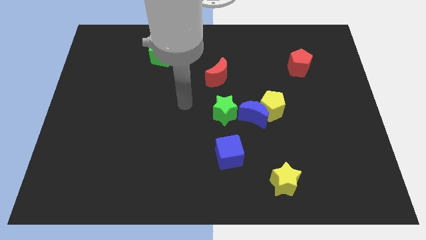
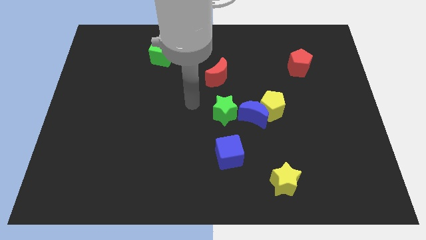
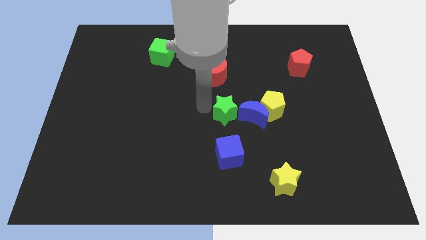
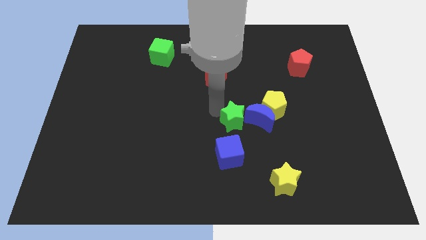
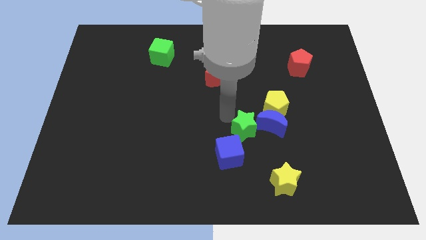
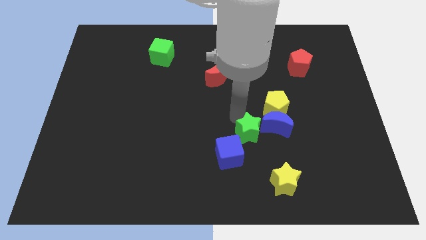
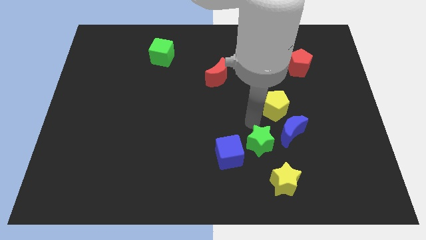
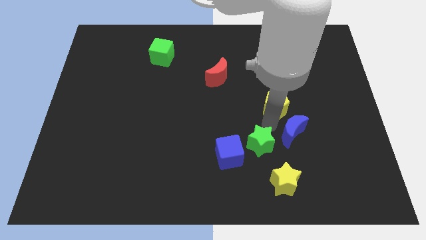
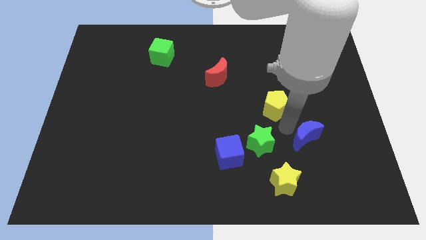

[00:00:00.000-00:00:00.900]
separate the yellow pentagon from the blue moon

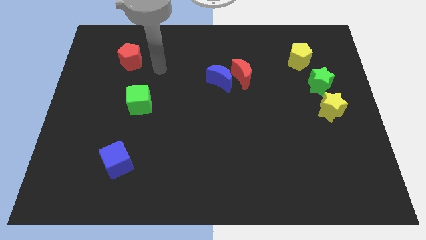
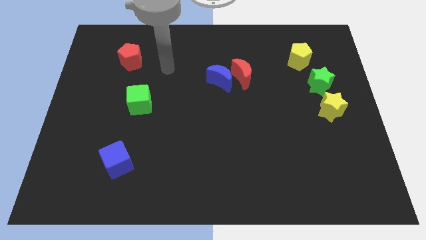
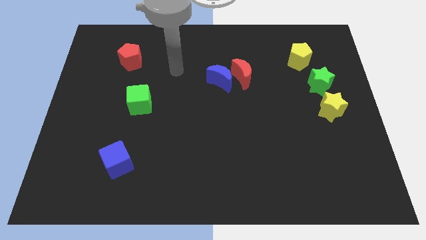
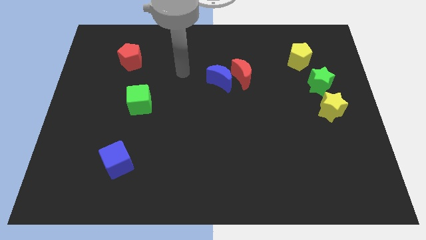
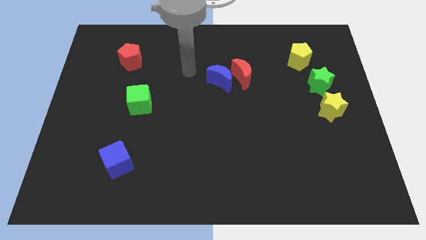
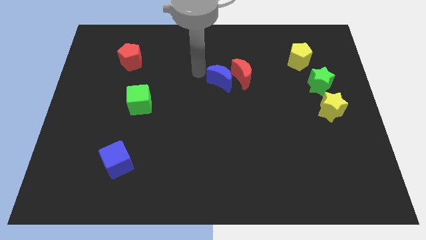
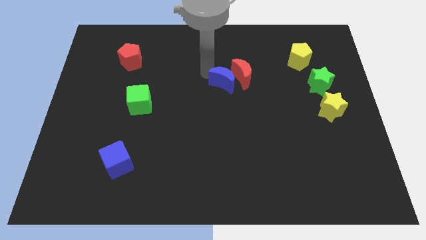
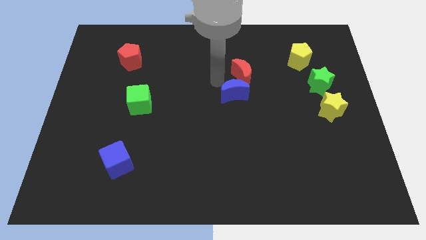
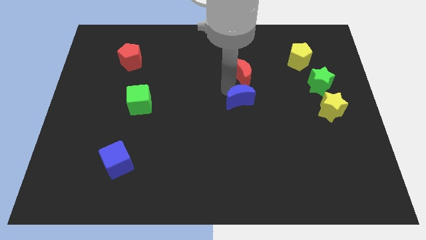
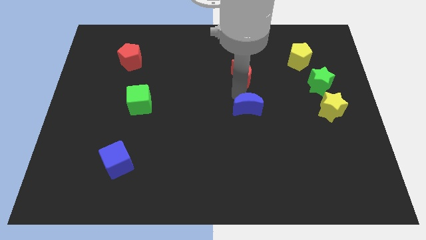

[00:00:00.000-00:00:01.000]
separate the red moon from the blue moon

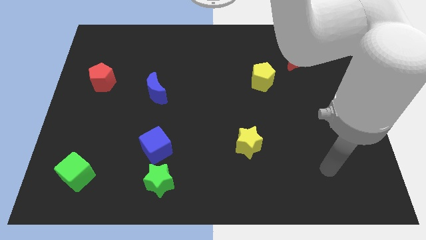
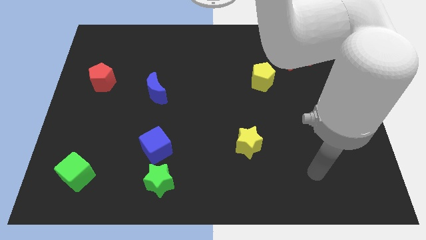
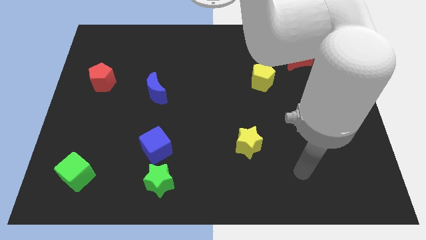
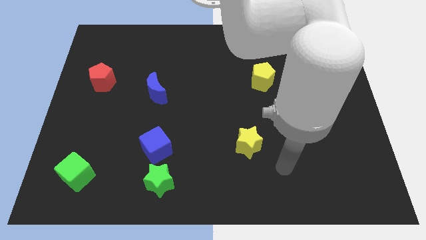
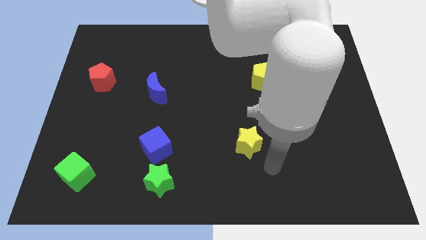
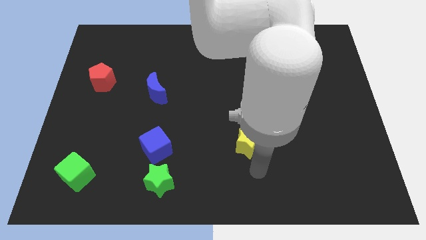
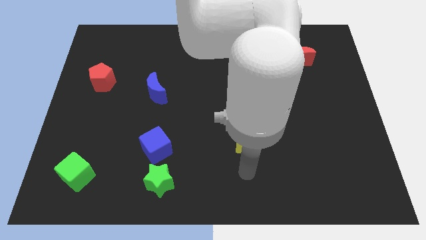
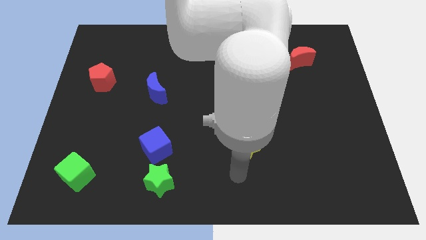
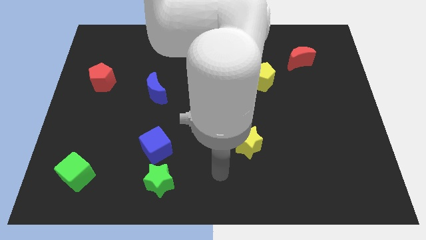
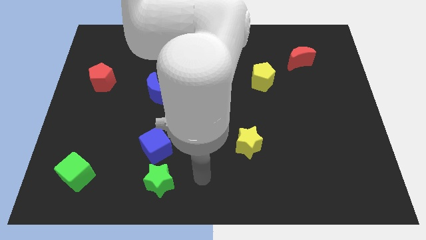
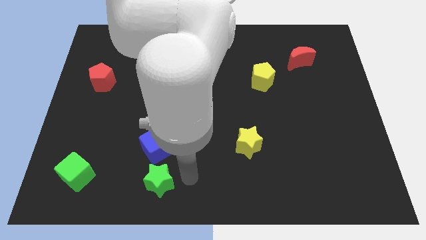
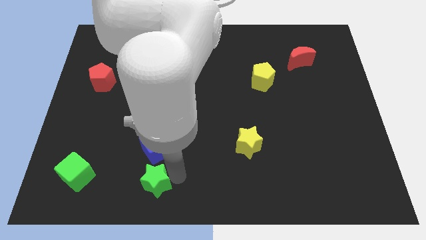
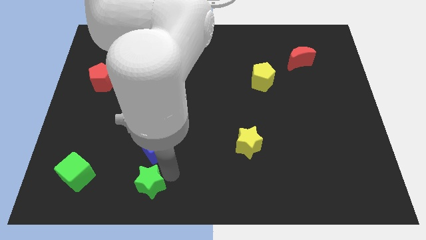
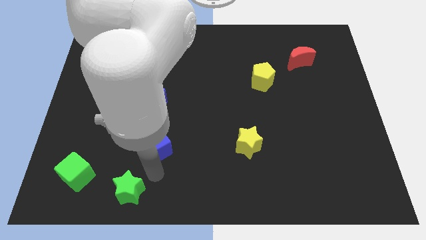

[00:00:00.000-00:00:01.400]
pull the blue cube apart from the green star

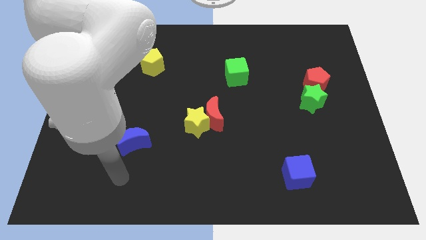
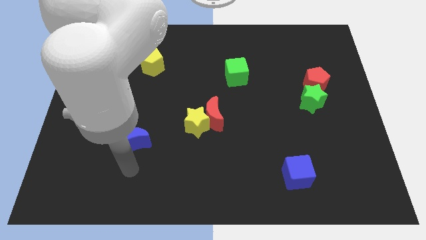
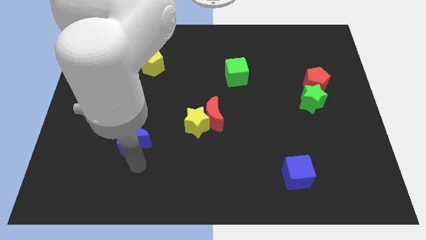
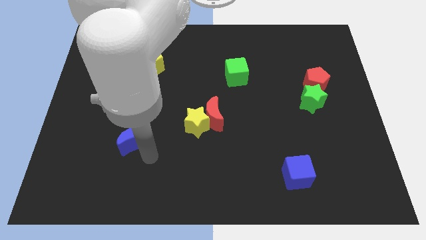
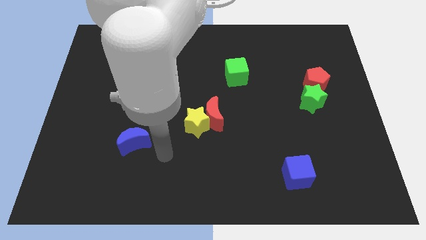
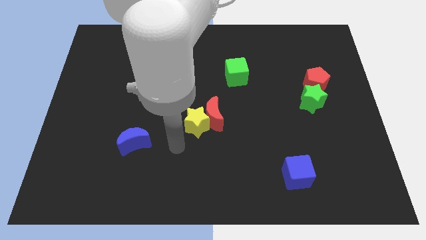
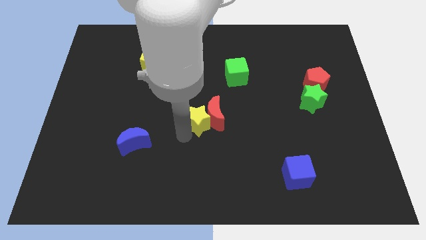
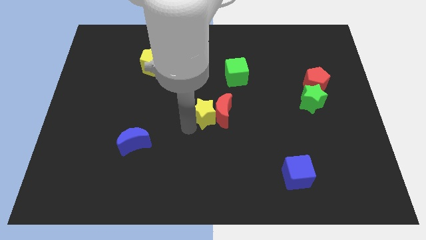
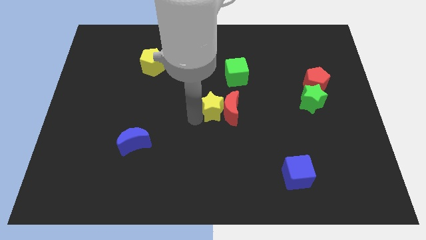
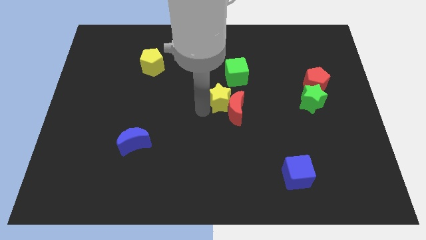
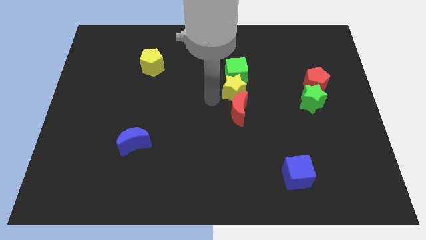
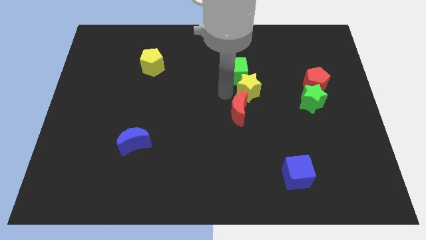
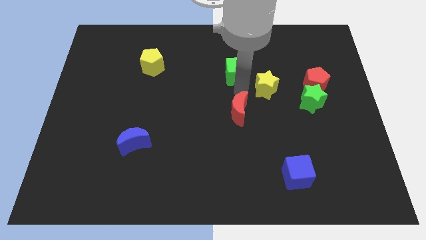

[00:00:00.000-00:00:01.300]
move the red moon away from the yellow star

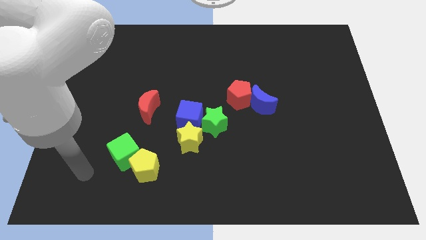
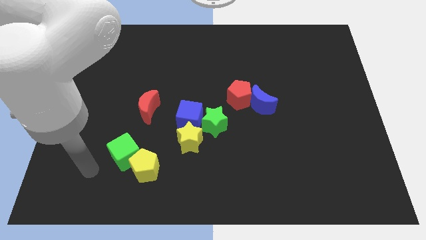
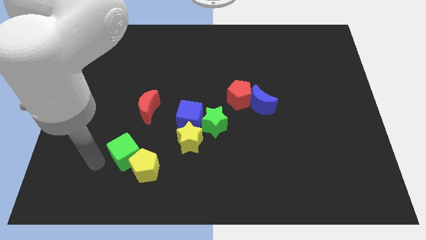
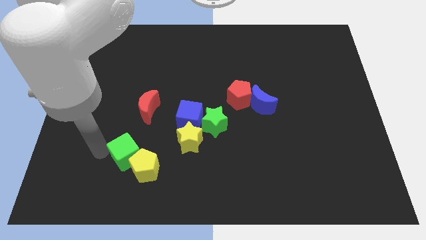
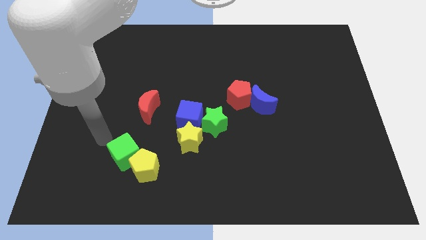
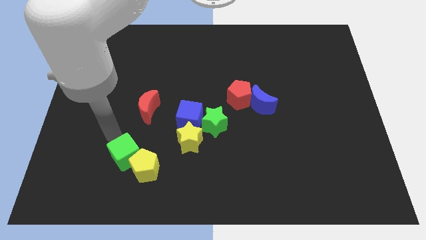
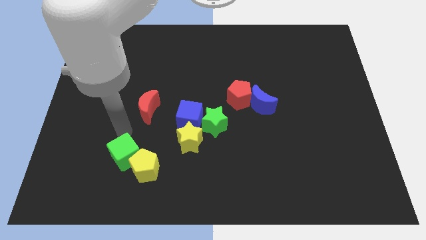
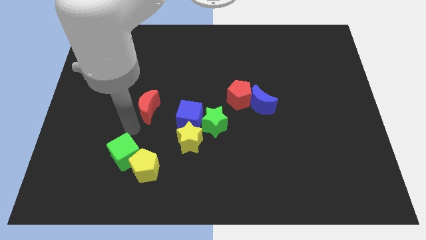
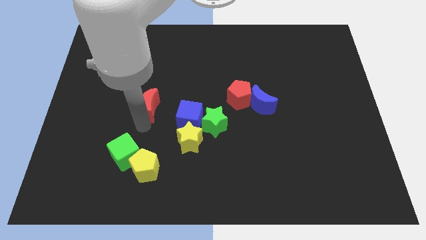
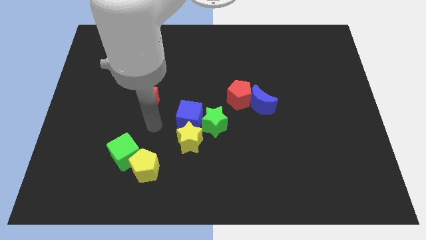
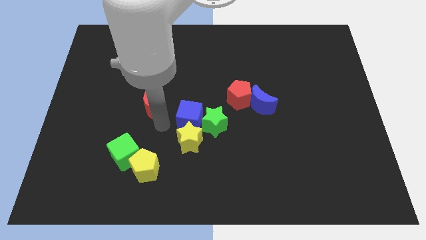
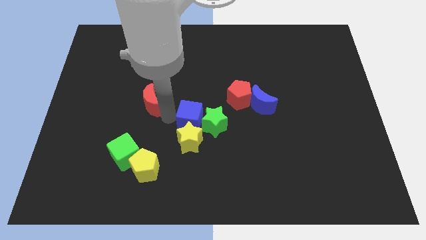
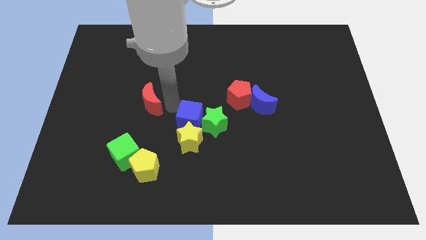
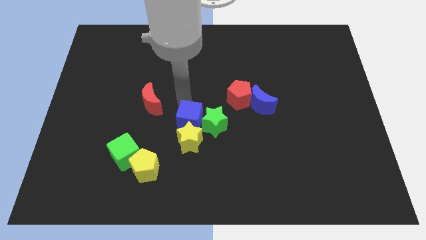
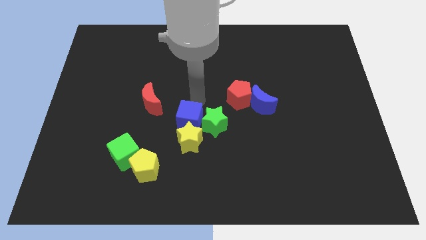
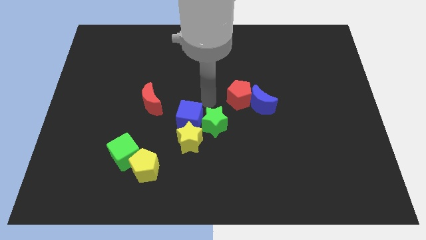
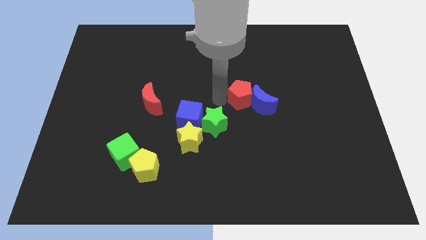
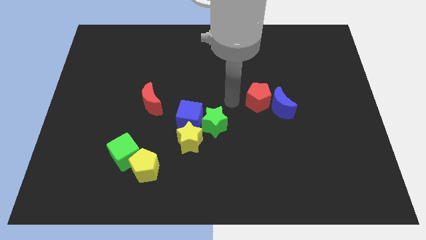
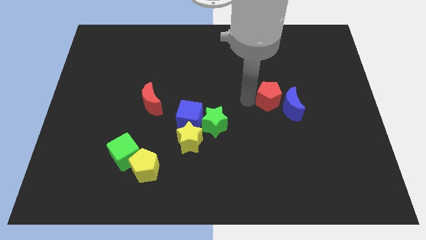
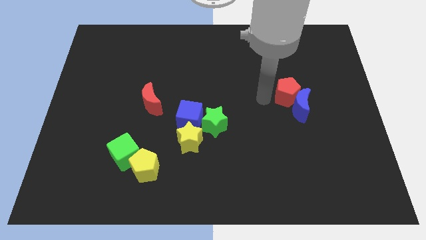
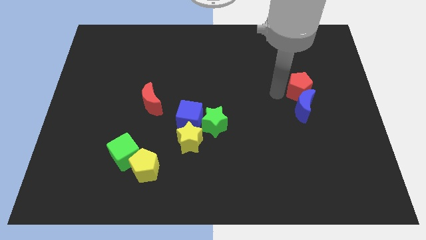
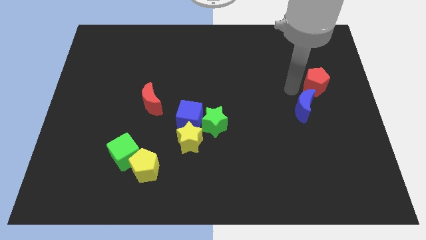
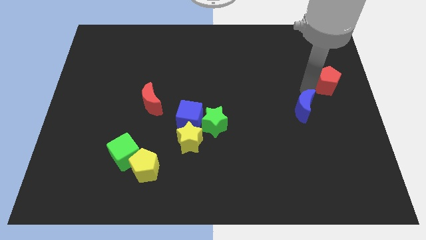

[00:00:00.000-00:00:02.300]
pull the blue moon apart from the red pentagon

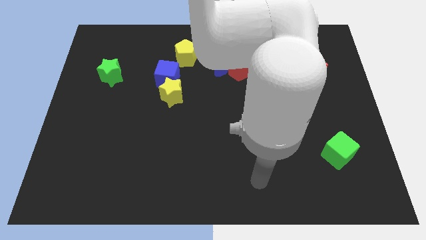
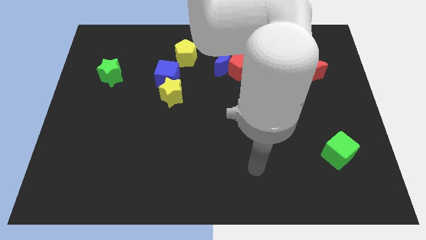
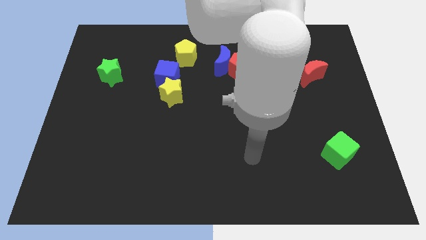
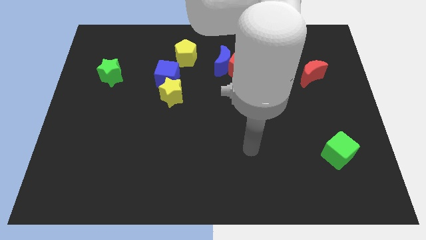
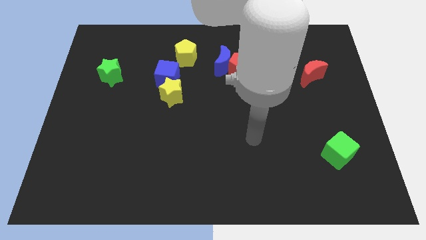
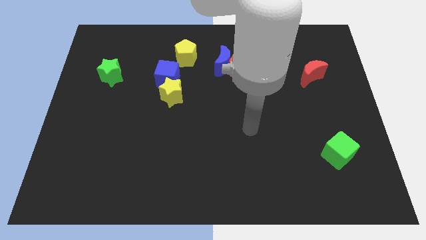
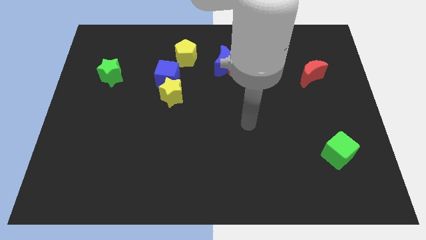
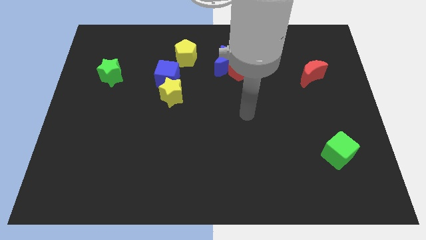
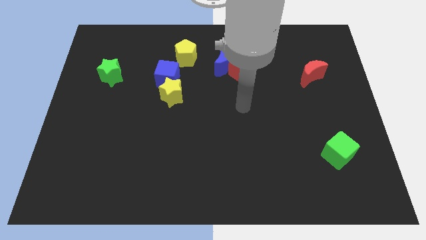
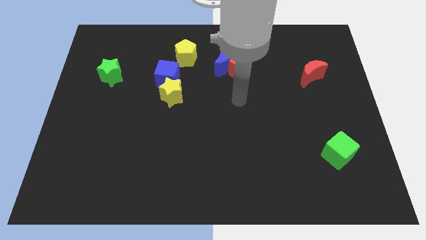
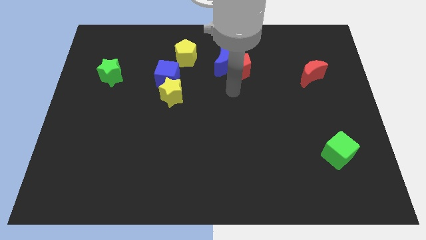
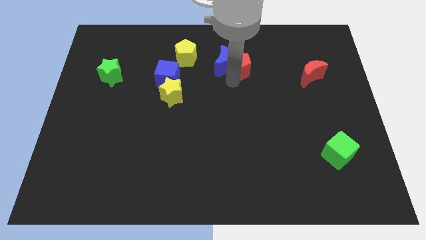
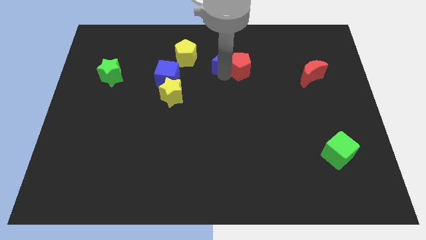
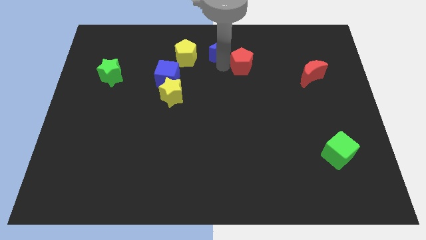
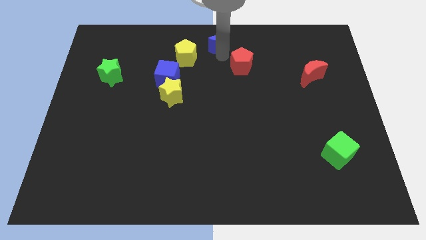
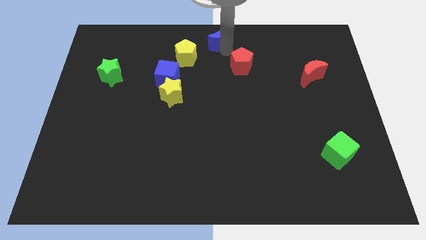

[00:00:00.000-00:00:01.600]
pull the red pentagon apart from the blue moon

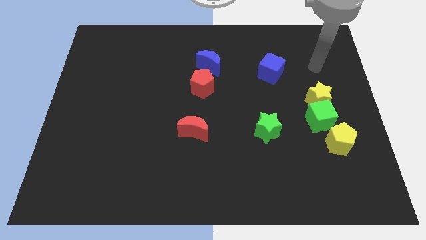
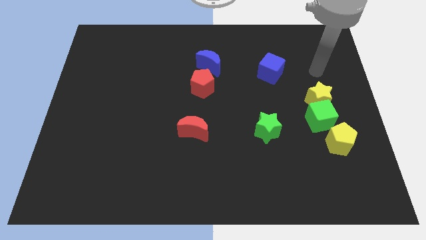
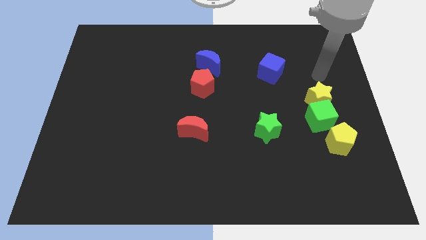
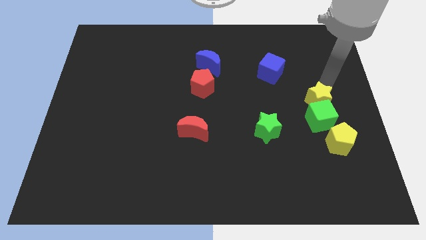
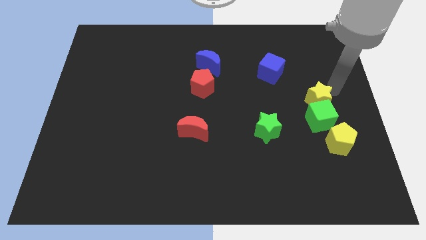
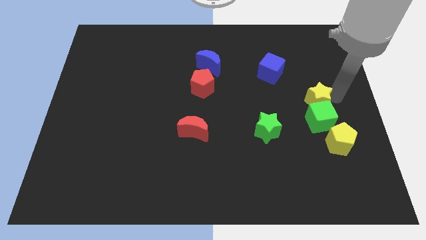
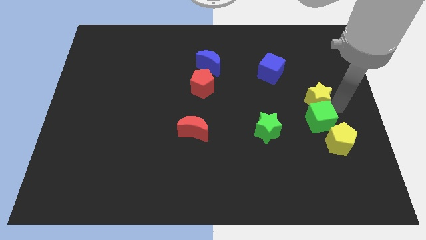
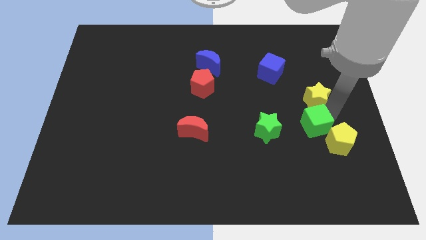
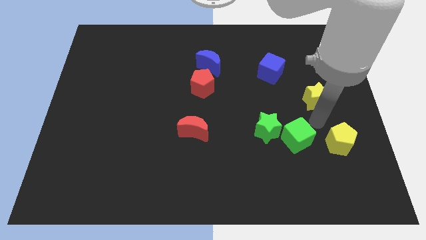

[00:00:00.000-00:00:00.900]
move the yellow star away from the green cube
